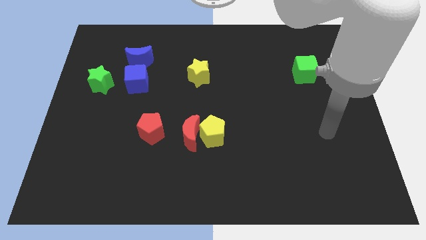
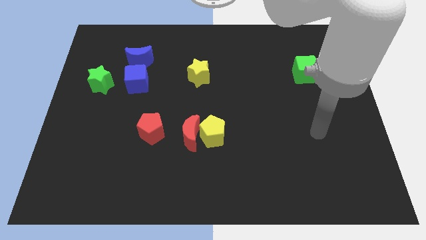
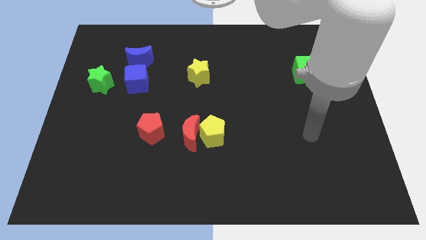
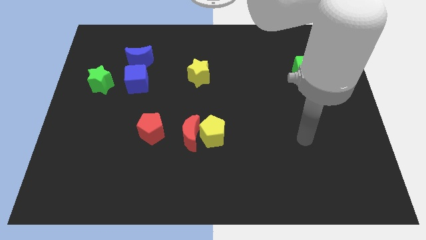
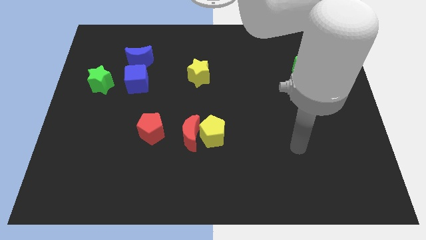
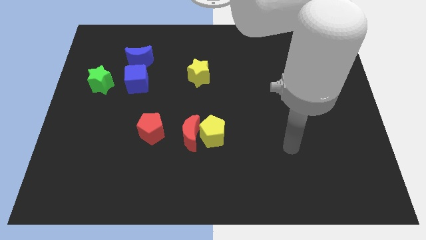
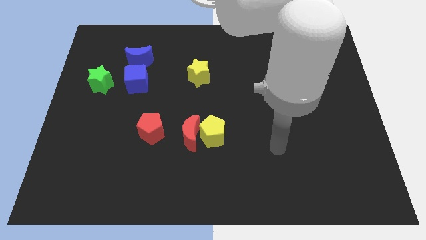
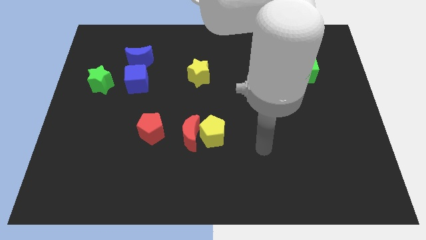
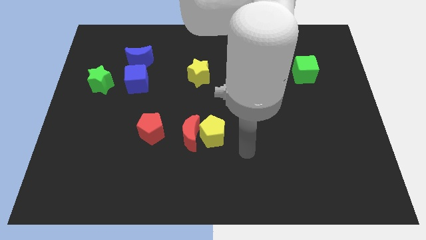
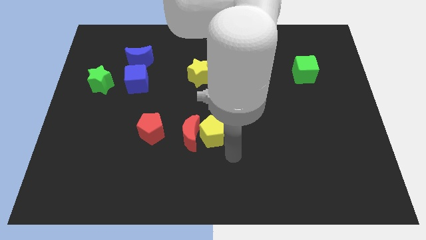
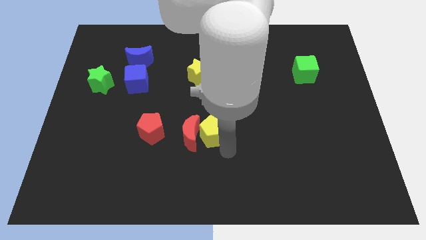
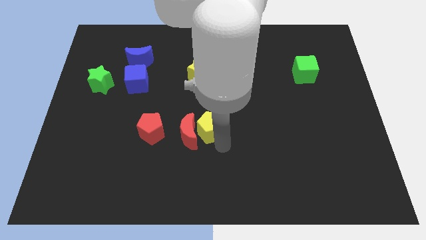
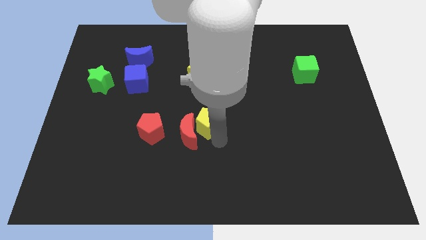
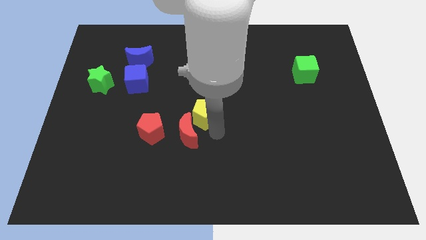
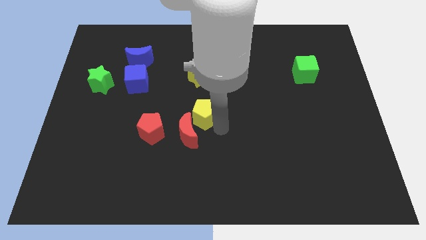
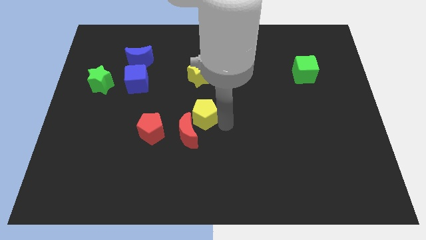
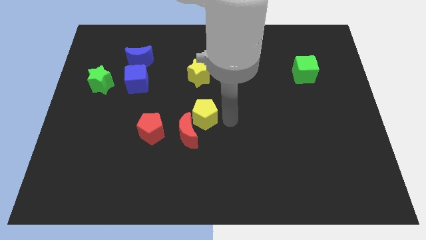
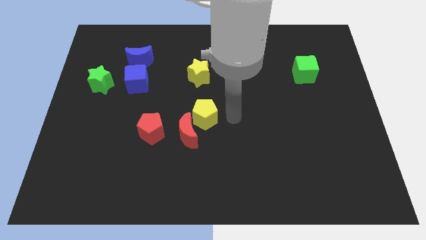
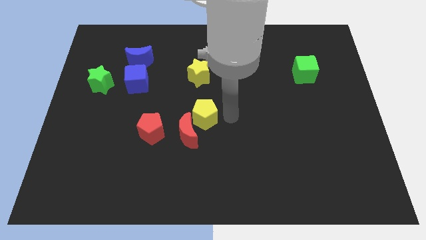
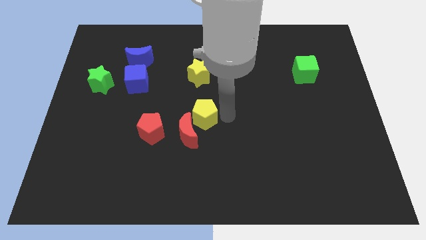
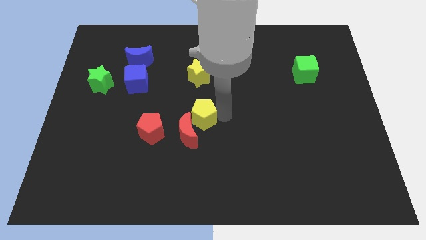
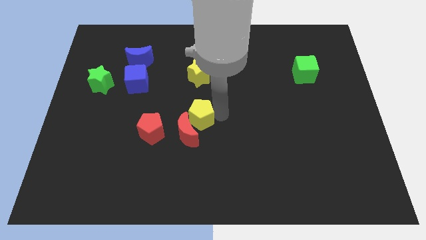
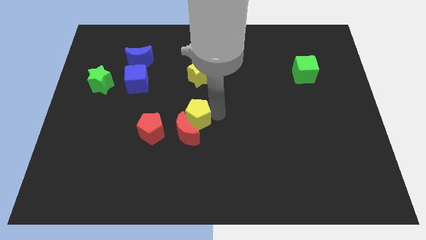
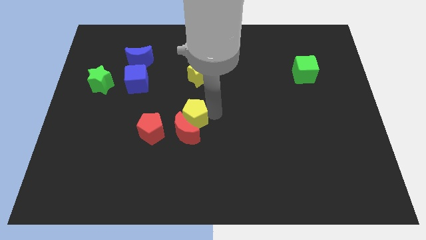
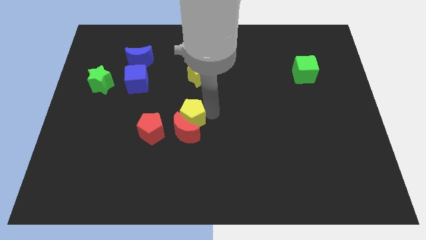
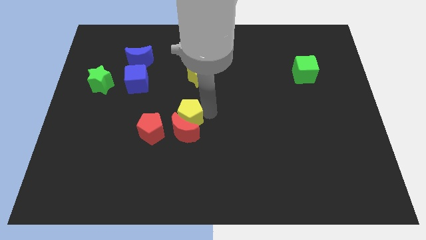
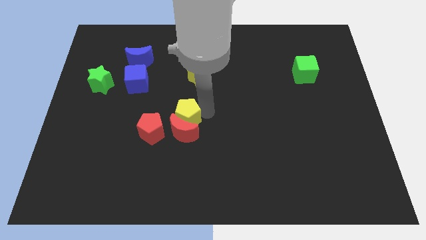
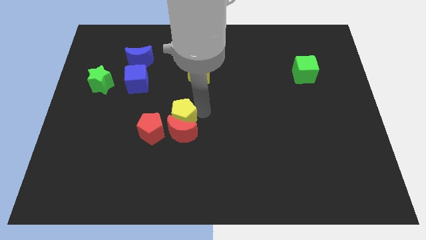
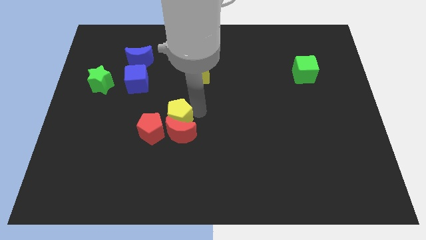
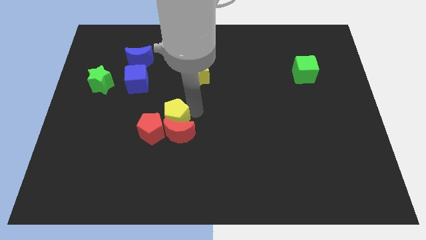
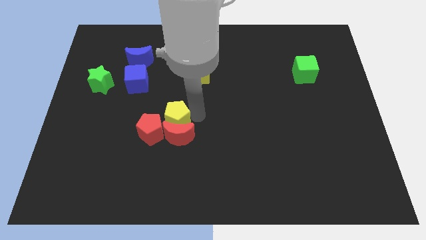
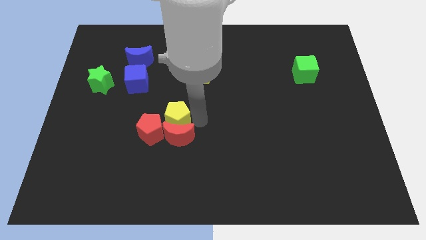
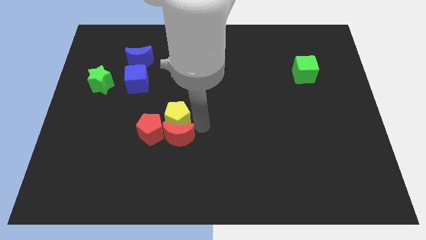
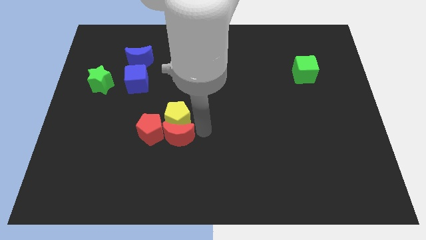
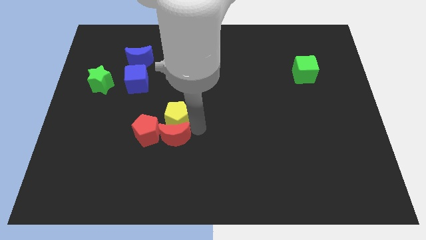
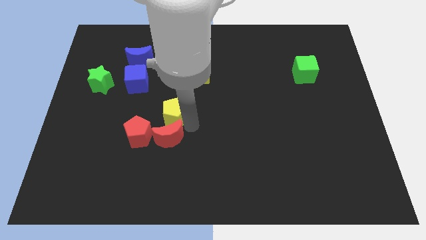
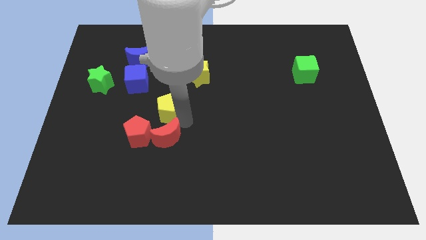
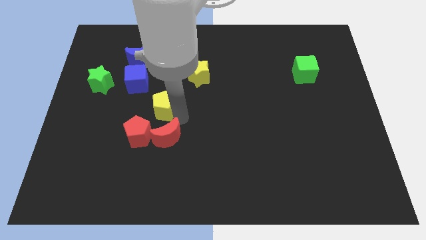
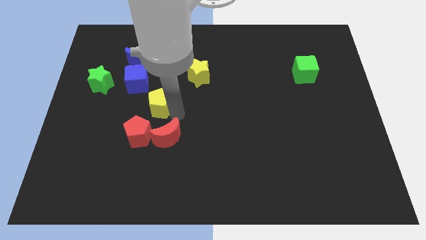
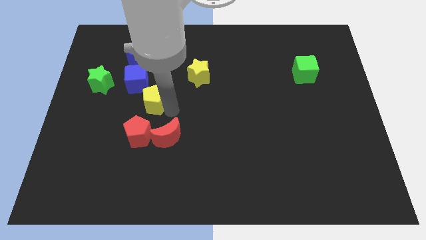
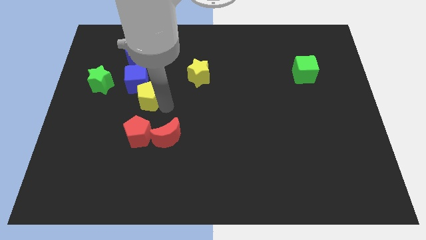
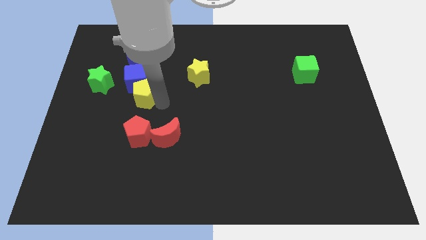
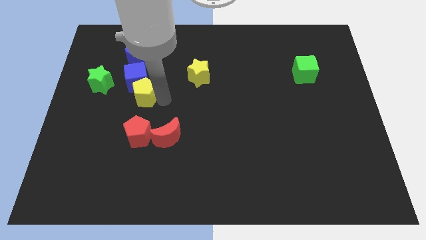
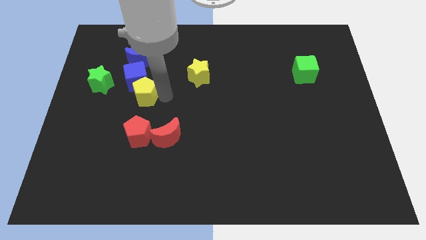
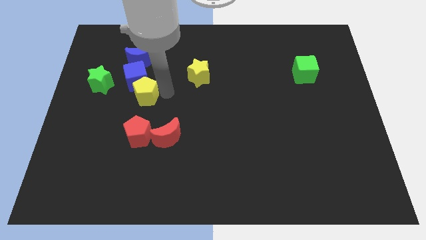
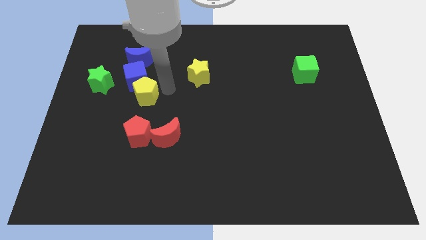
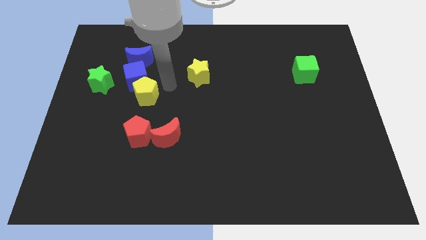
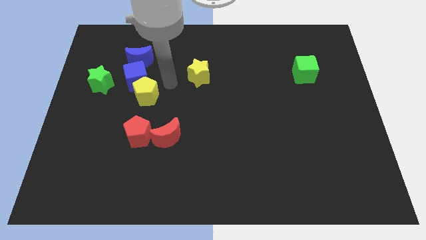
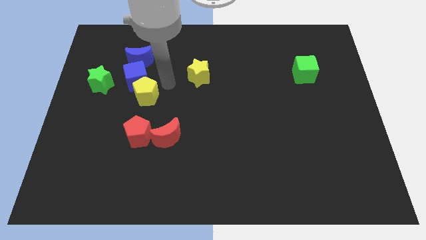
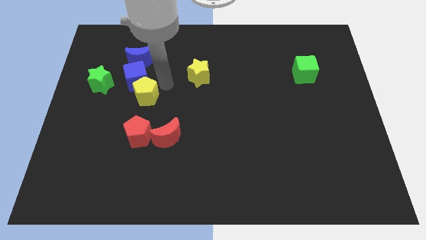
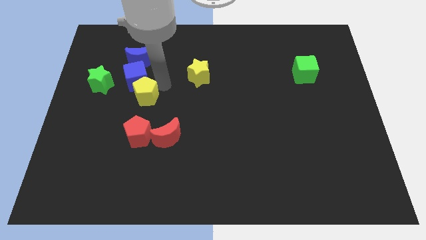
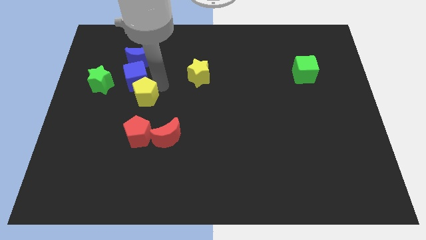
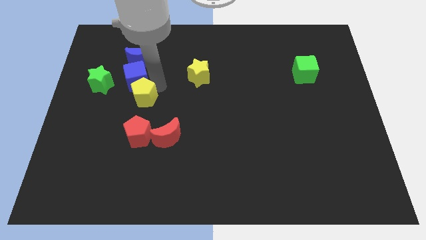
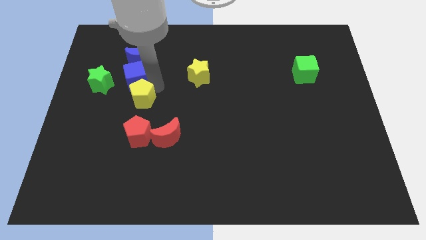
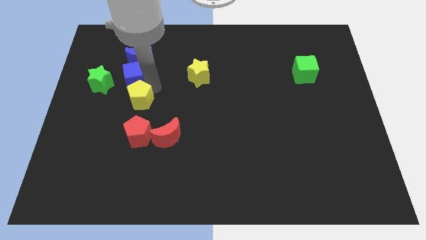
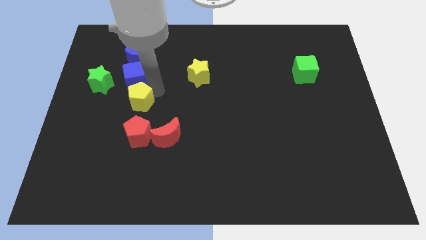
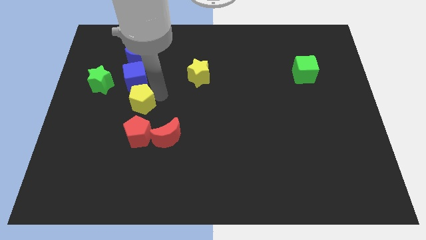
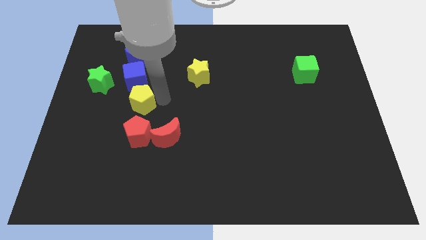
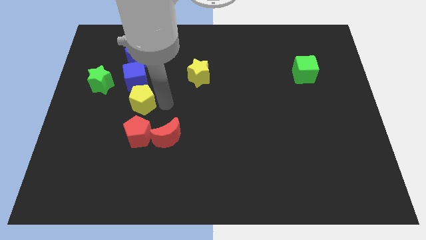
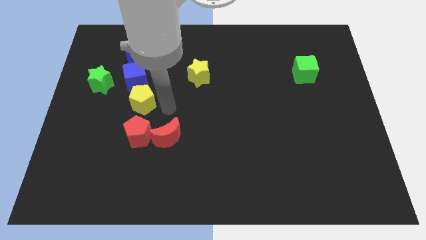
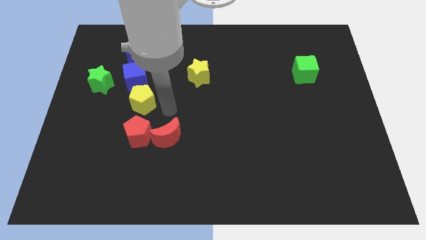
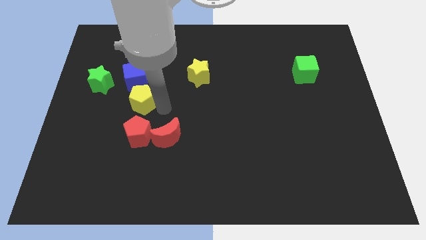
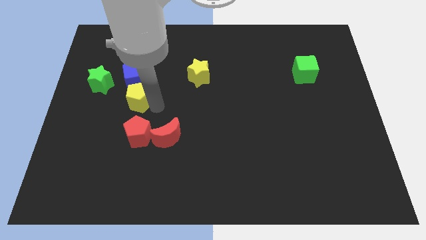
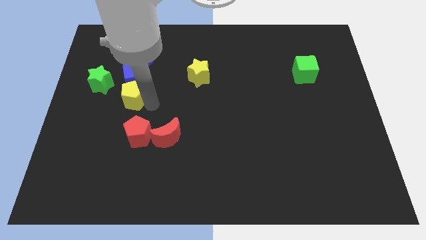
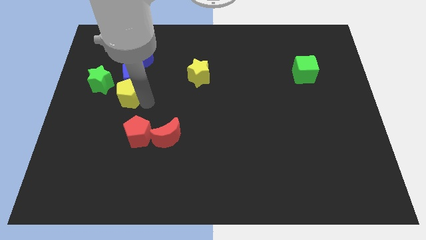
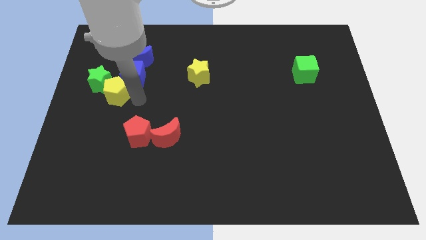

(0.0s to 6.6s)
put the yellow pentagon close to the green star

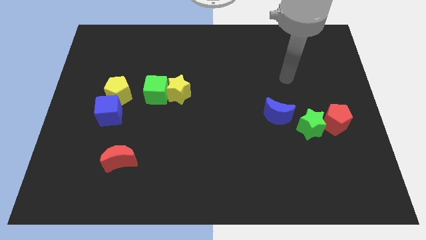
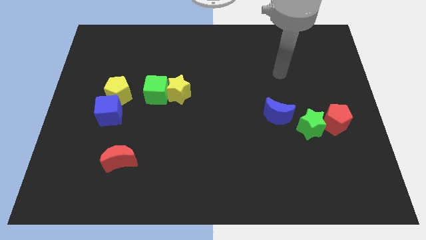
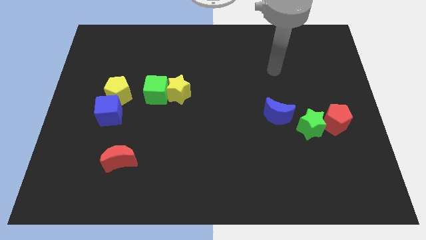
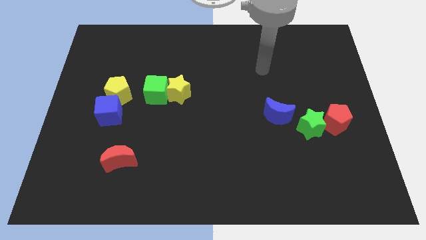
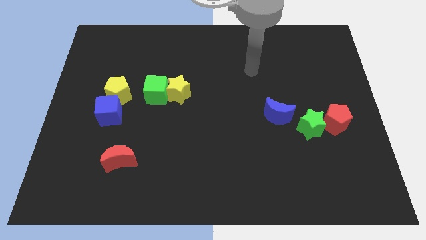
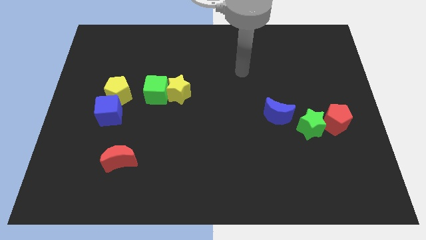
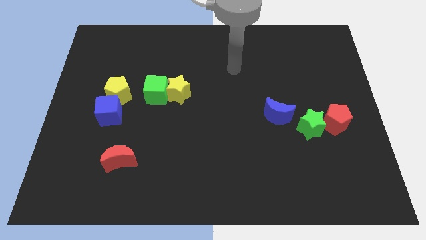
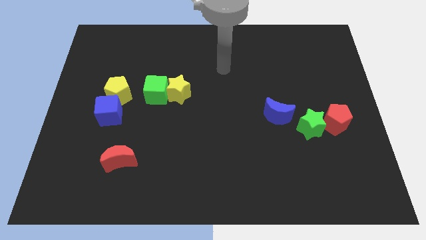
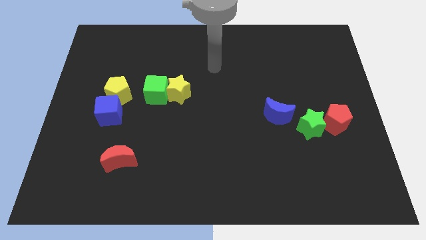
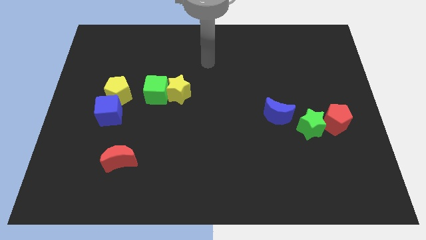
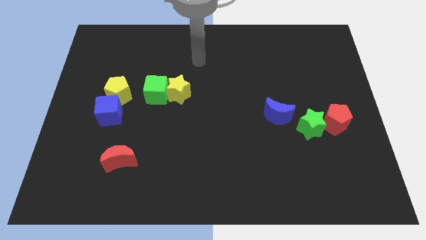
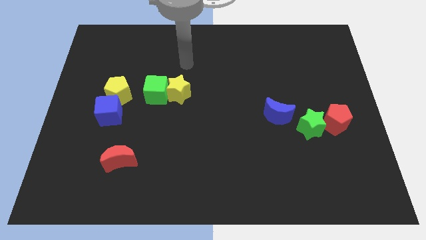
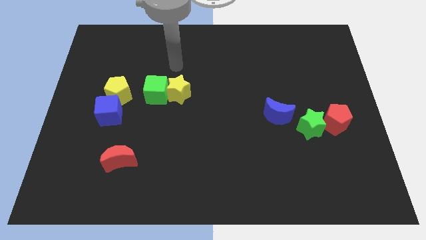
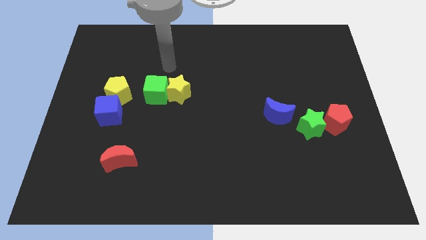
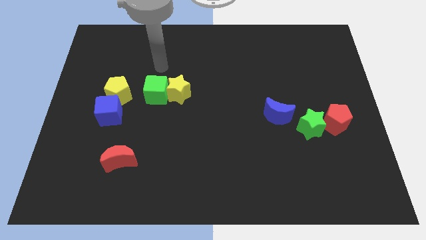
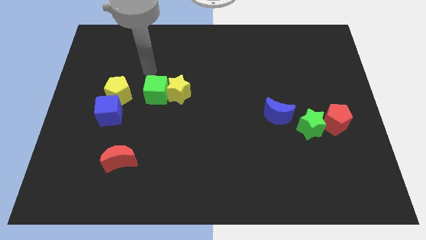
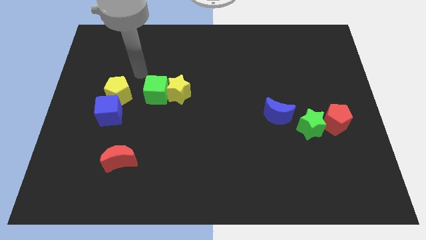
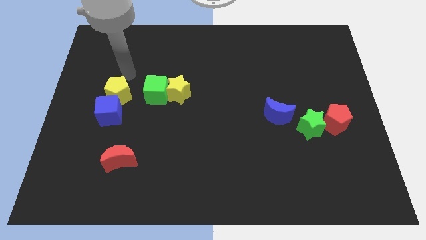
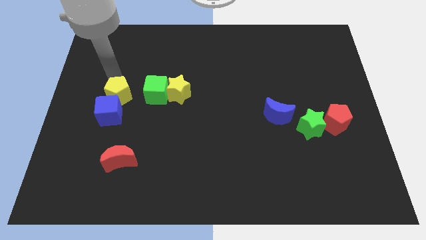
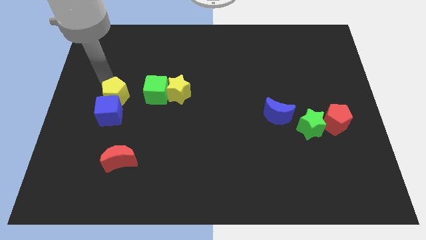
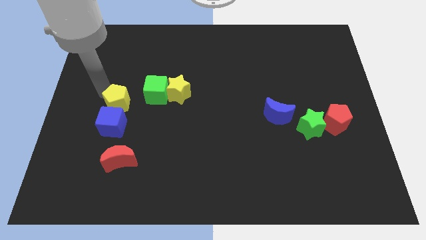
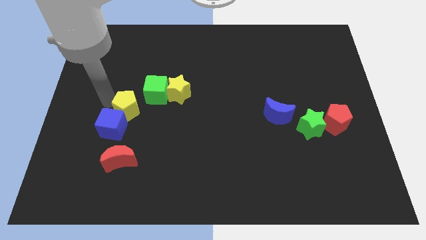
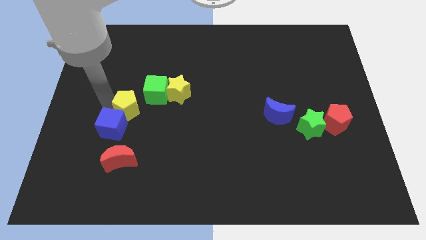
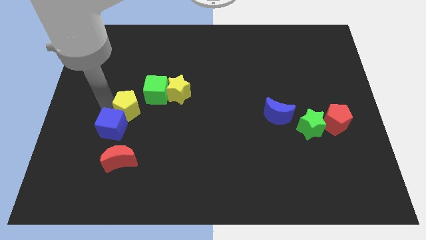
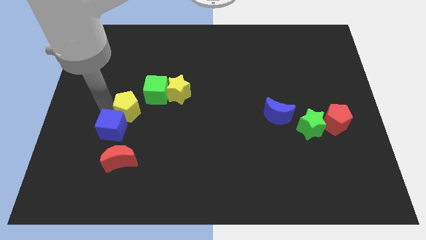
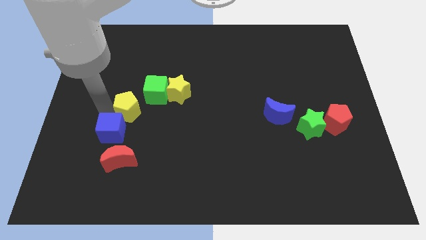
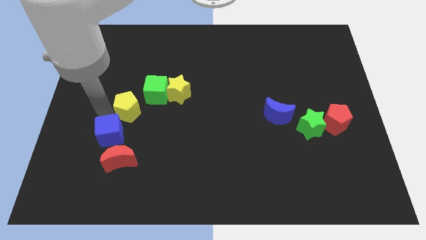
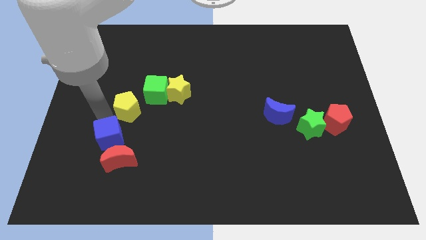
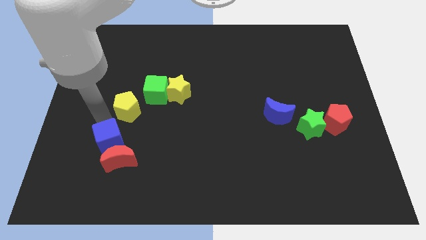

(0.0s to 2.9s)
push the blue cube next to the red moon
